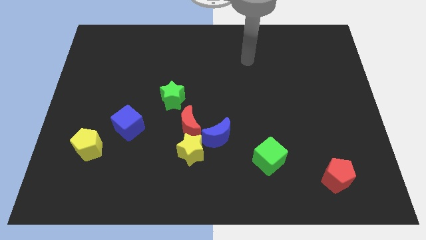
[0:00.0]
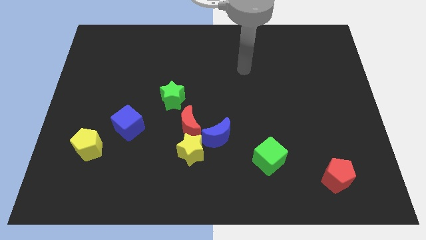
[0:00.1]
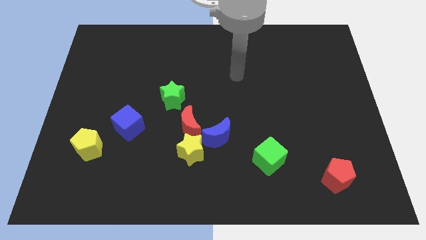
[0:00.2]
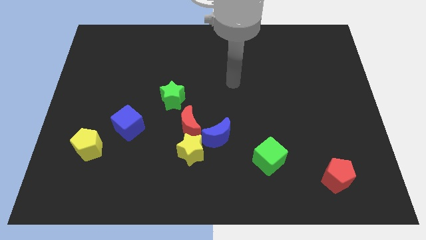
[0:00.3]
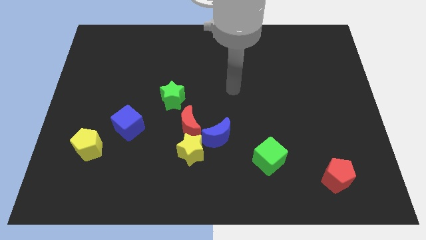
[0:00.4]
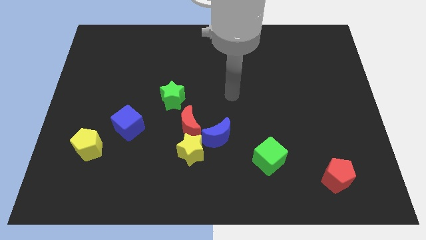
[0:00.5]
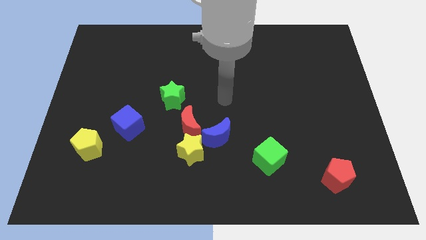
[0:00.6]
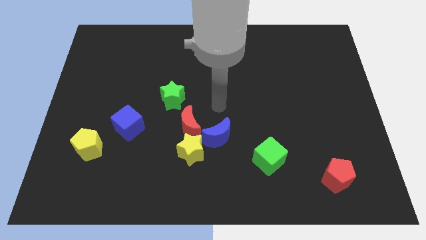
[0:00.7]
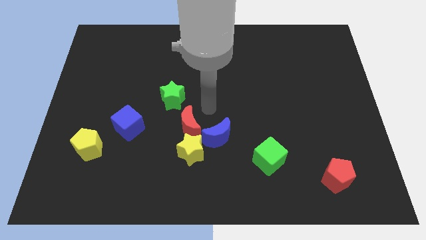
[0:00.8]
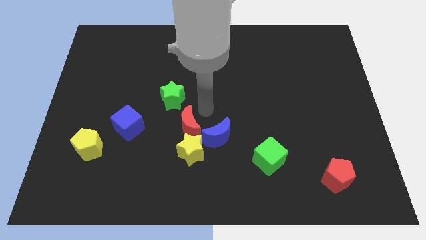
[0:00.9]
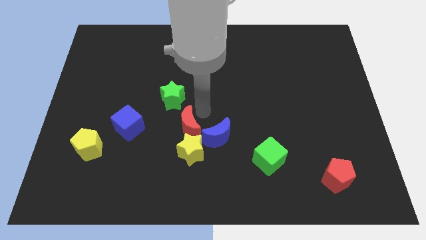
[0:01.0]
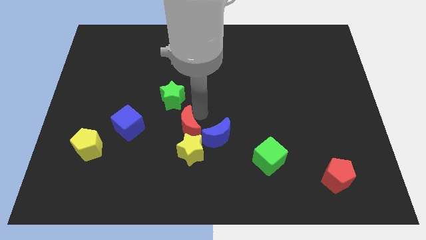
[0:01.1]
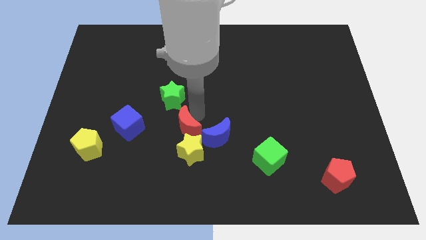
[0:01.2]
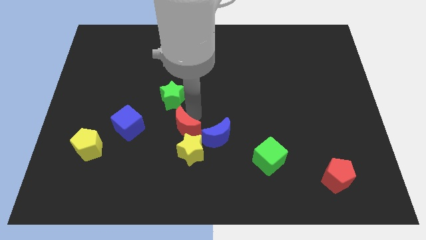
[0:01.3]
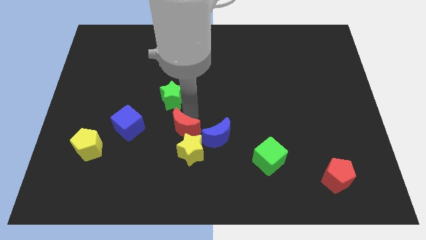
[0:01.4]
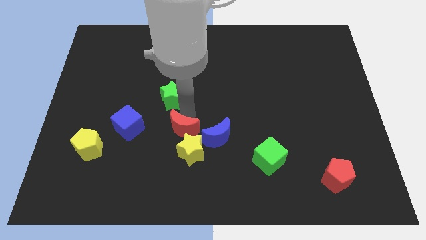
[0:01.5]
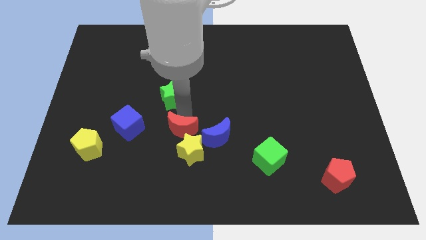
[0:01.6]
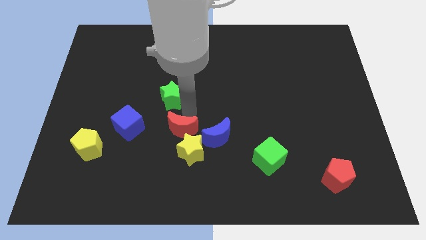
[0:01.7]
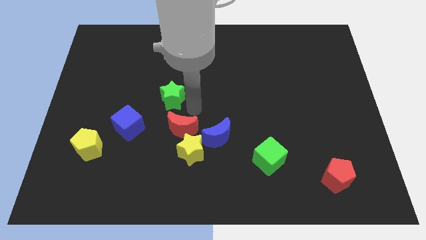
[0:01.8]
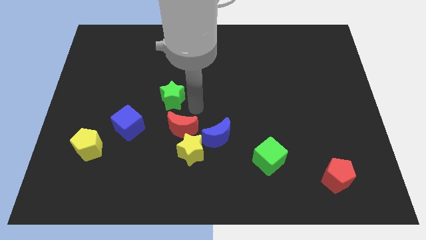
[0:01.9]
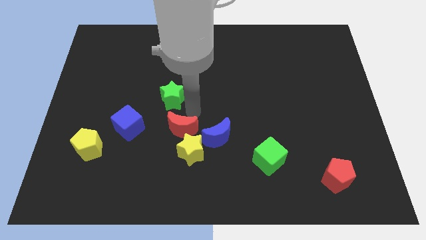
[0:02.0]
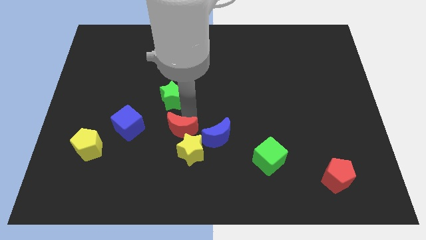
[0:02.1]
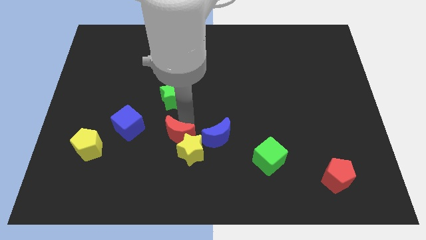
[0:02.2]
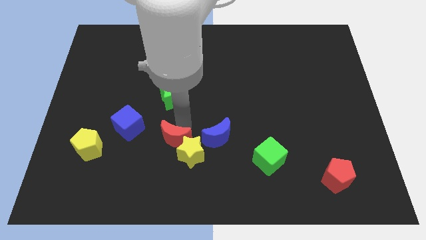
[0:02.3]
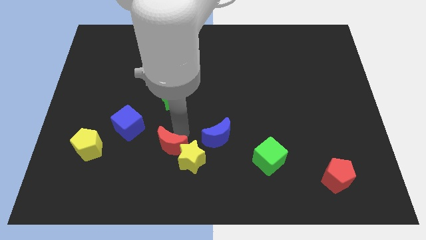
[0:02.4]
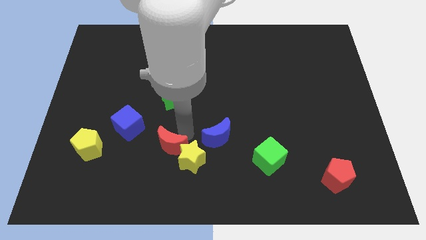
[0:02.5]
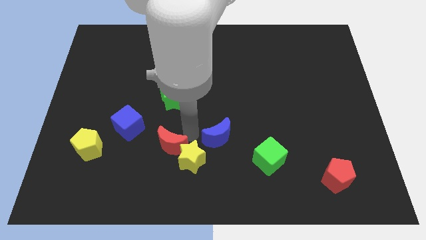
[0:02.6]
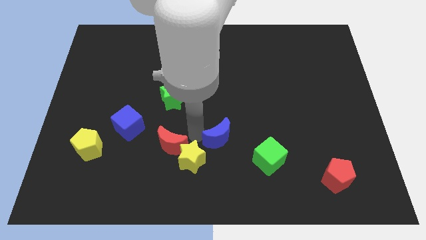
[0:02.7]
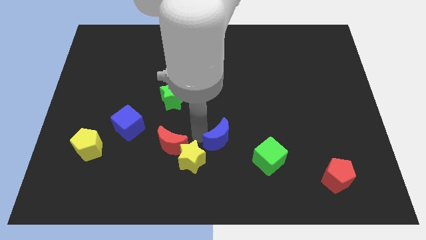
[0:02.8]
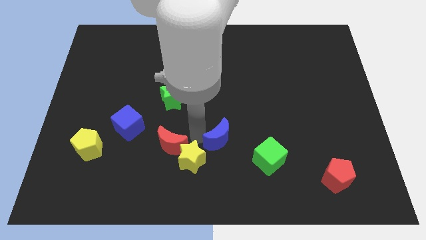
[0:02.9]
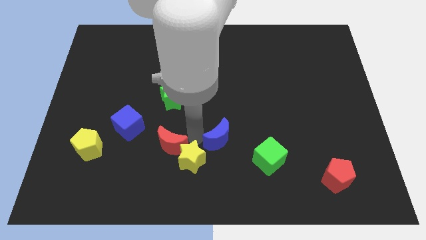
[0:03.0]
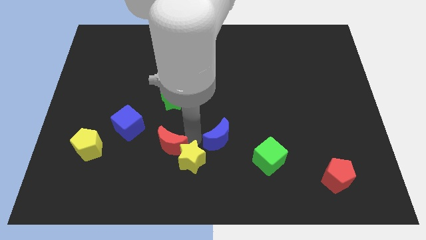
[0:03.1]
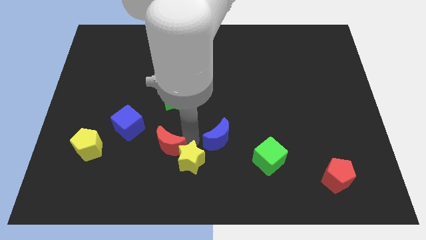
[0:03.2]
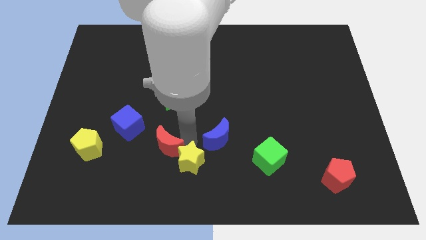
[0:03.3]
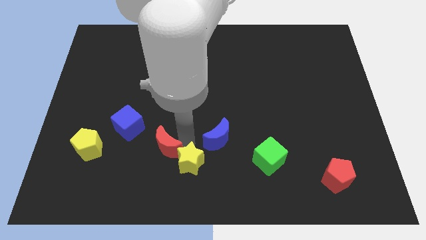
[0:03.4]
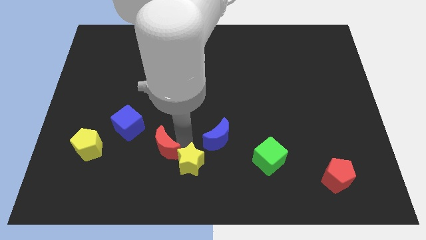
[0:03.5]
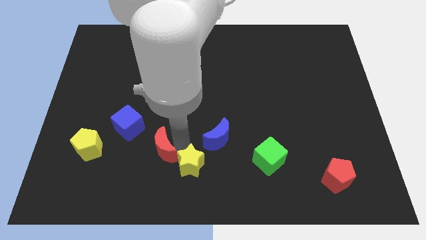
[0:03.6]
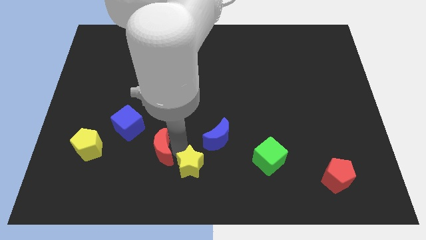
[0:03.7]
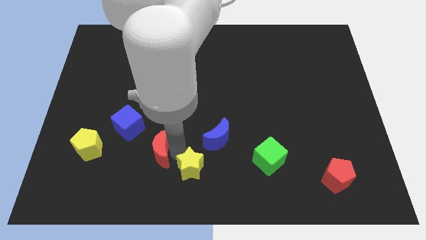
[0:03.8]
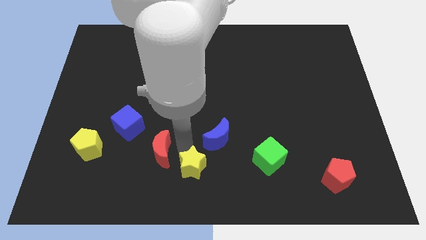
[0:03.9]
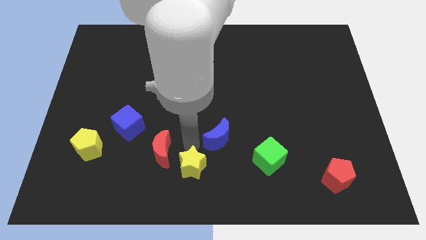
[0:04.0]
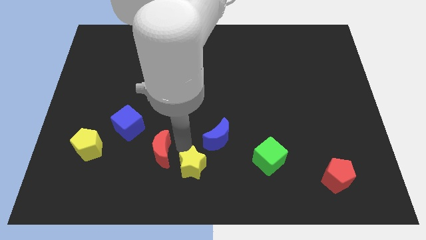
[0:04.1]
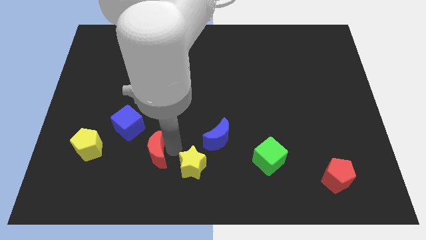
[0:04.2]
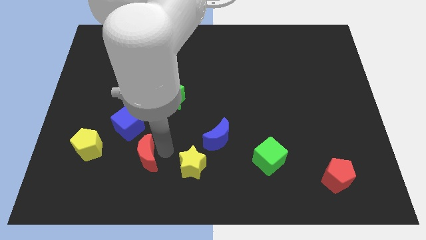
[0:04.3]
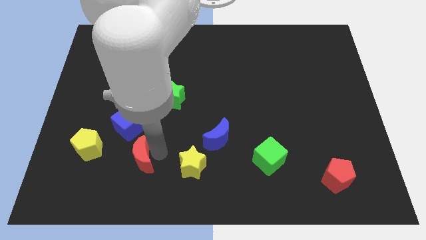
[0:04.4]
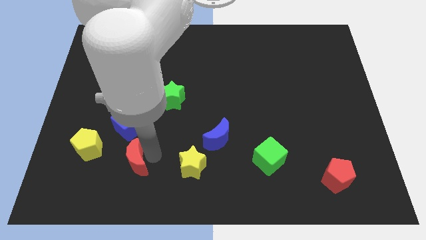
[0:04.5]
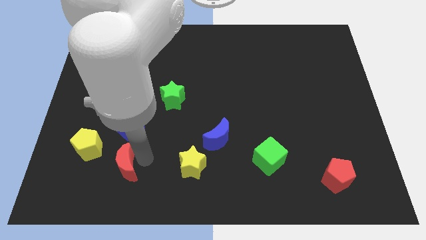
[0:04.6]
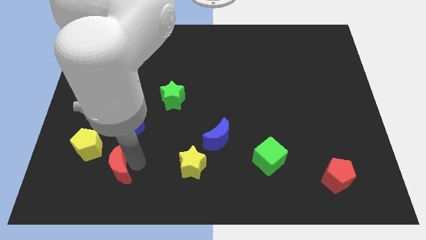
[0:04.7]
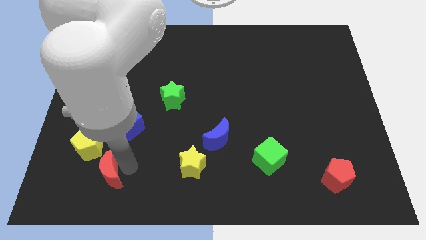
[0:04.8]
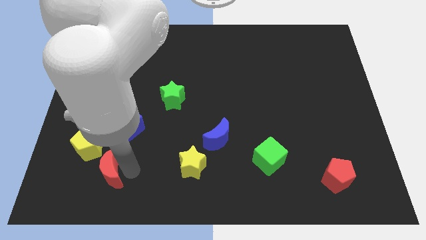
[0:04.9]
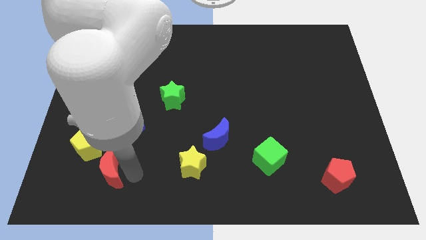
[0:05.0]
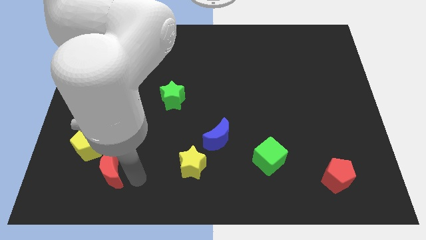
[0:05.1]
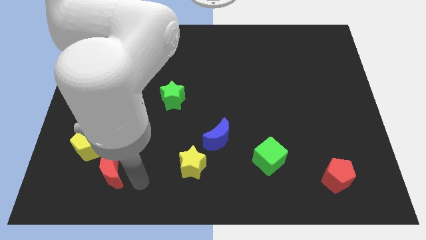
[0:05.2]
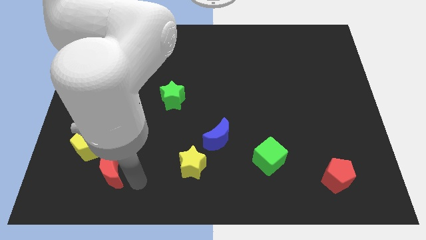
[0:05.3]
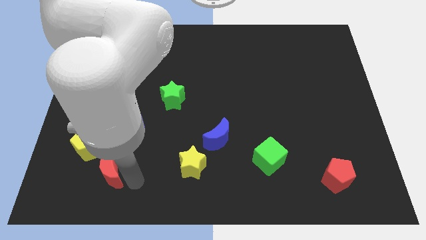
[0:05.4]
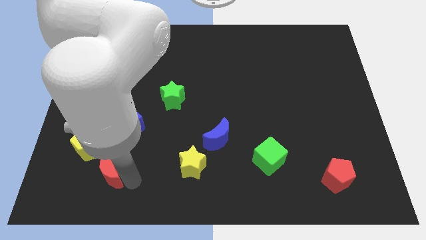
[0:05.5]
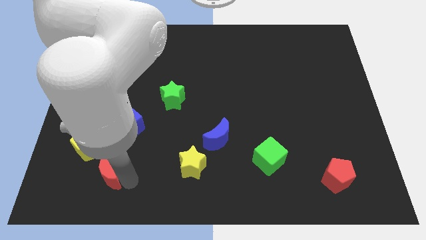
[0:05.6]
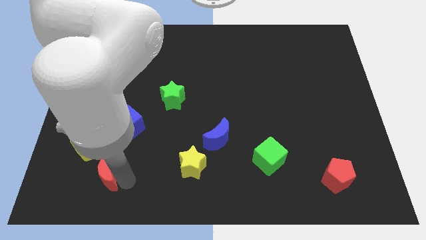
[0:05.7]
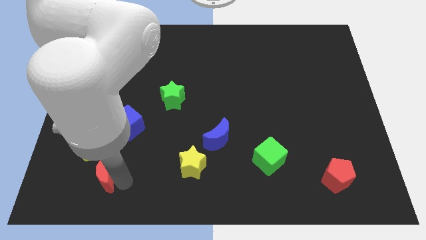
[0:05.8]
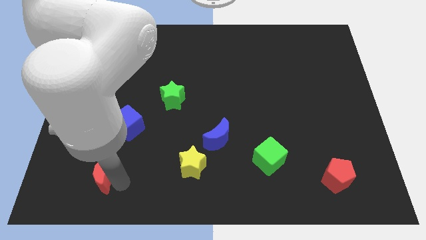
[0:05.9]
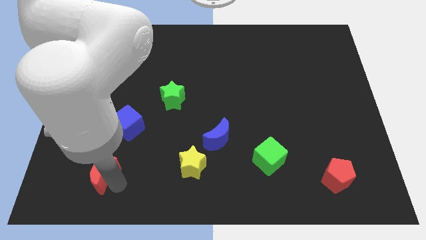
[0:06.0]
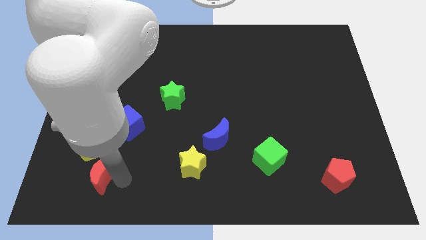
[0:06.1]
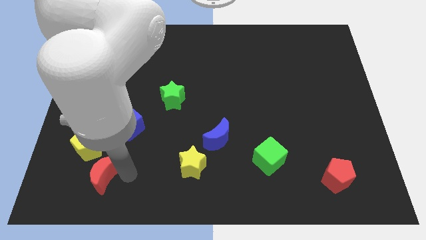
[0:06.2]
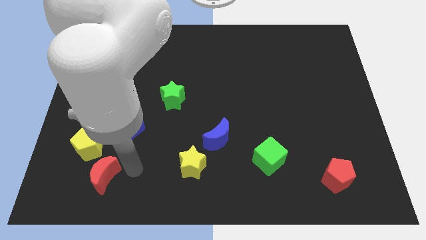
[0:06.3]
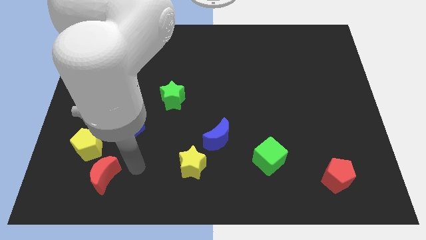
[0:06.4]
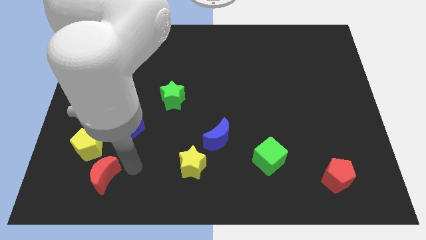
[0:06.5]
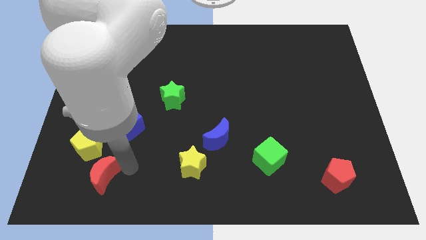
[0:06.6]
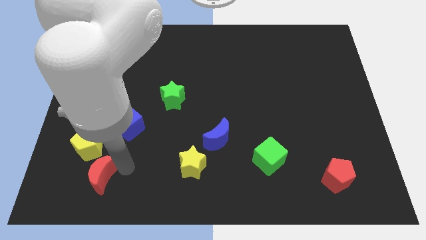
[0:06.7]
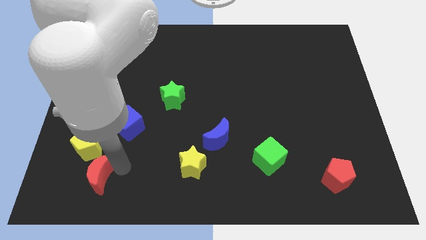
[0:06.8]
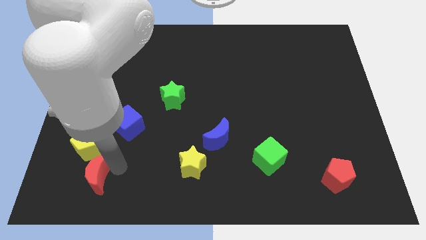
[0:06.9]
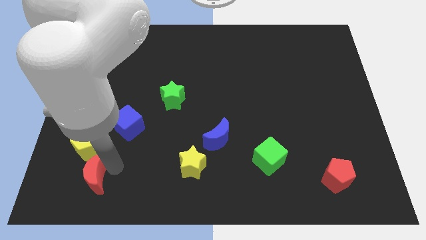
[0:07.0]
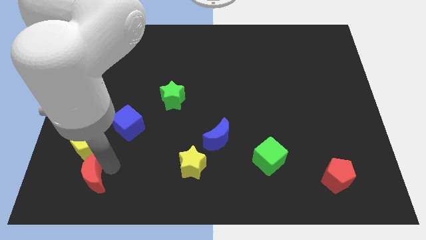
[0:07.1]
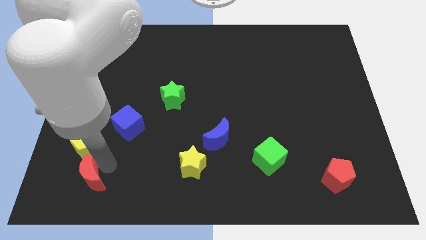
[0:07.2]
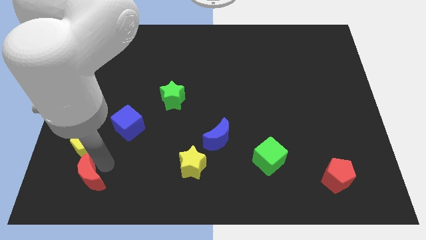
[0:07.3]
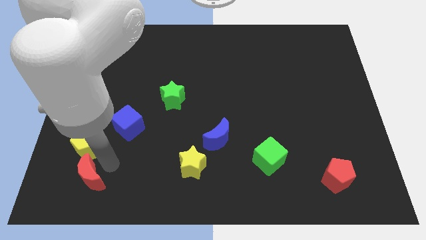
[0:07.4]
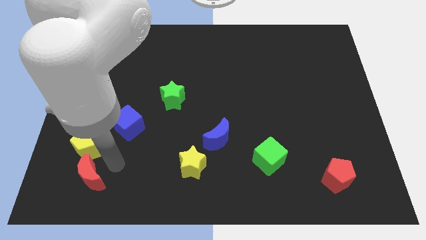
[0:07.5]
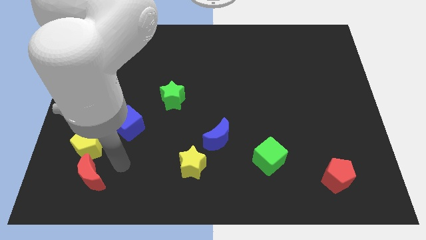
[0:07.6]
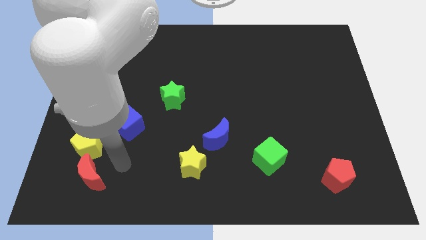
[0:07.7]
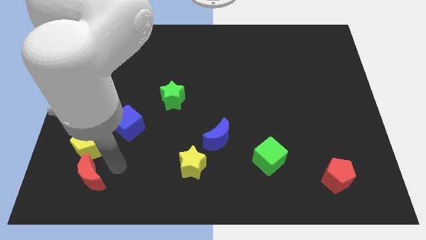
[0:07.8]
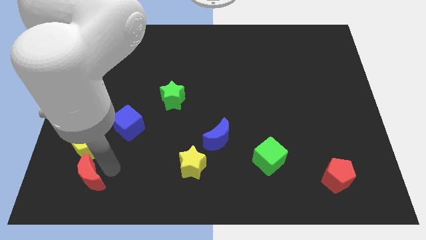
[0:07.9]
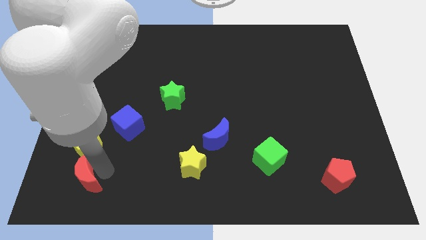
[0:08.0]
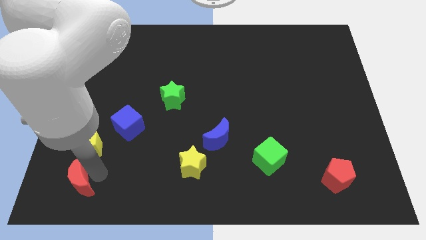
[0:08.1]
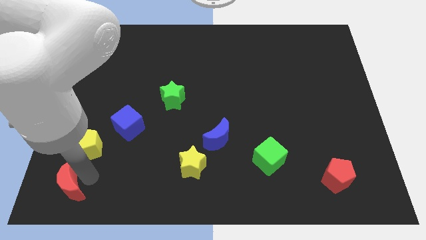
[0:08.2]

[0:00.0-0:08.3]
put the red moon to the bottom left of the board
